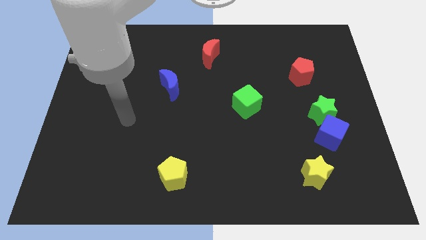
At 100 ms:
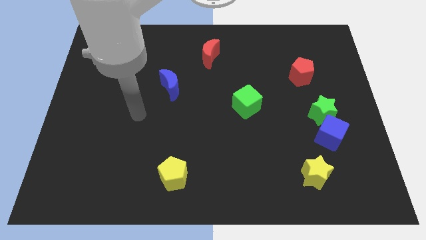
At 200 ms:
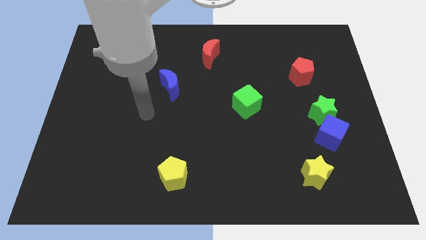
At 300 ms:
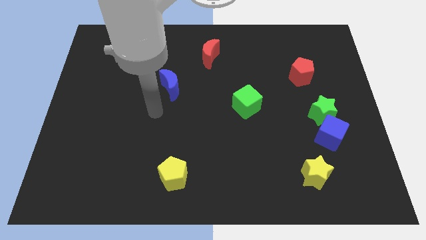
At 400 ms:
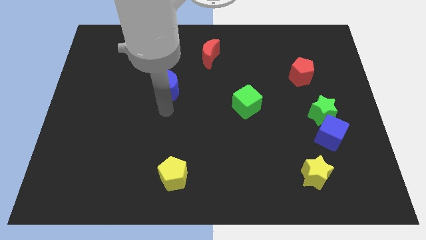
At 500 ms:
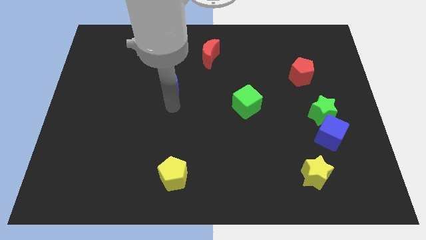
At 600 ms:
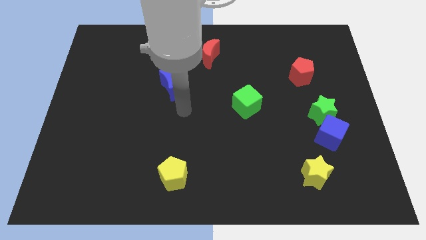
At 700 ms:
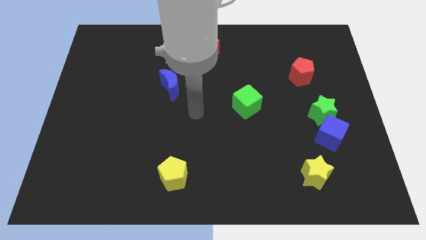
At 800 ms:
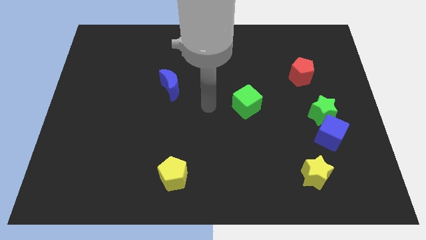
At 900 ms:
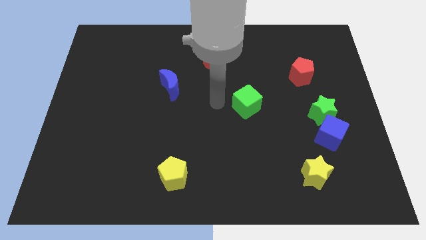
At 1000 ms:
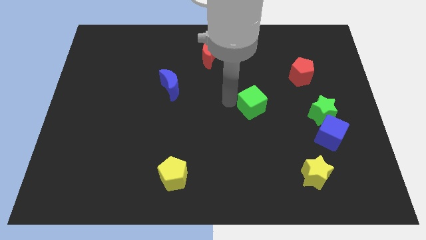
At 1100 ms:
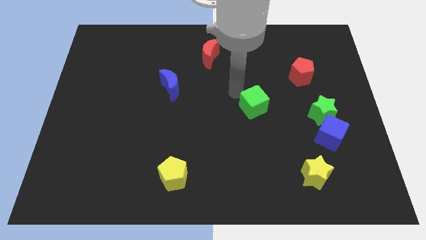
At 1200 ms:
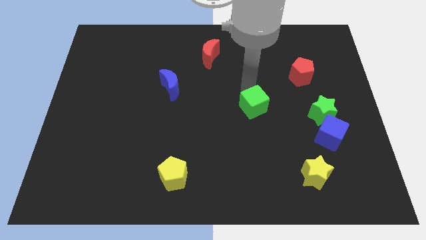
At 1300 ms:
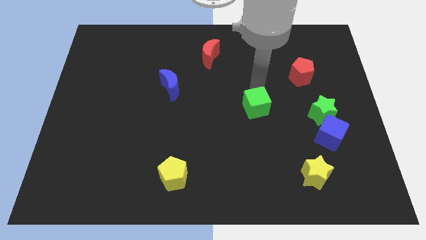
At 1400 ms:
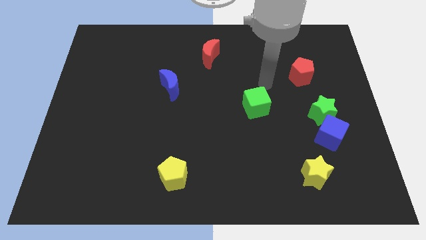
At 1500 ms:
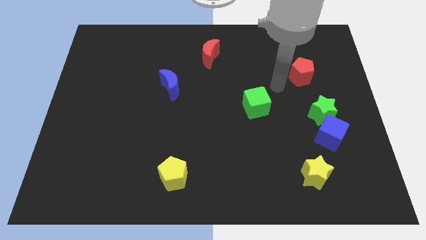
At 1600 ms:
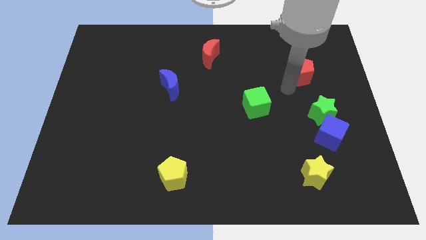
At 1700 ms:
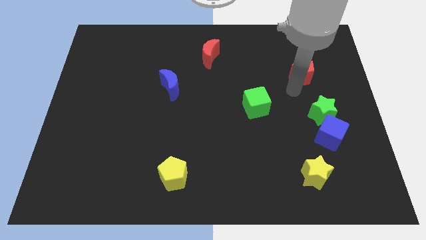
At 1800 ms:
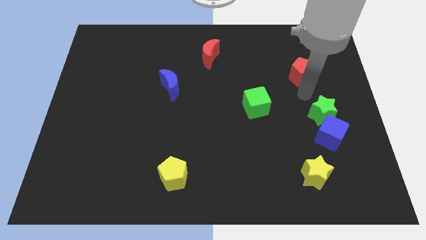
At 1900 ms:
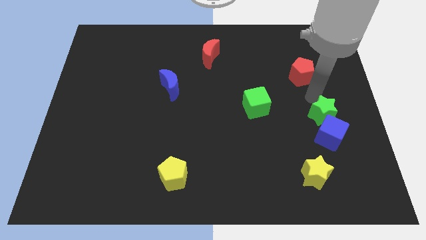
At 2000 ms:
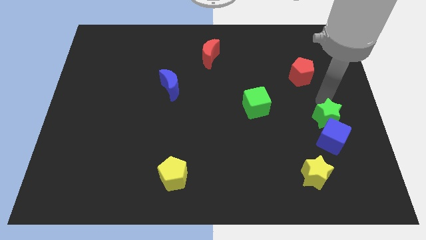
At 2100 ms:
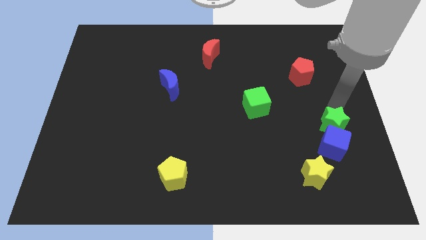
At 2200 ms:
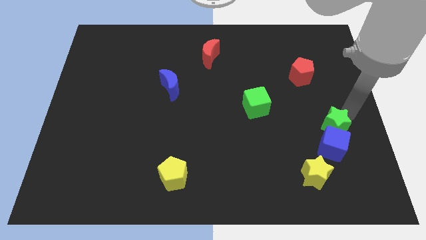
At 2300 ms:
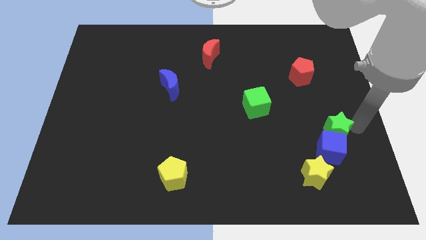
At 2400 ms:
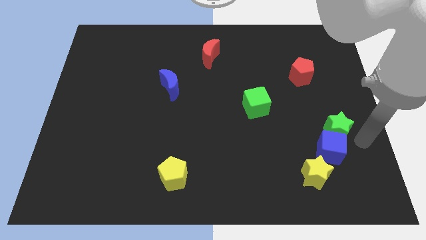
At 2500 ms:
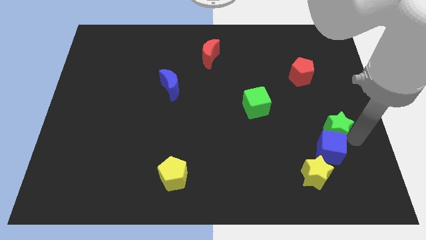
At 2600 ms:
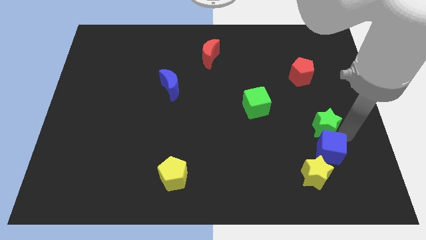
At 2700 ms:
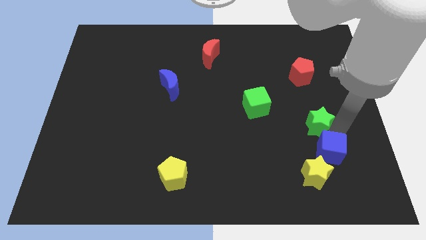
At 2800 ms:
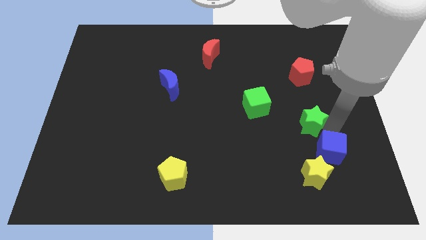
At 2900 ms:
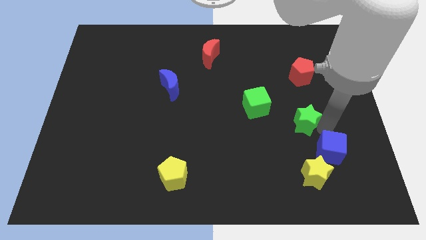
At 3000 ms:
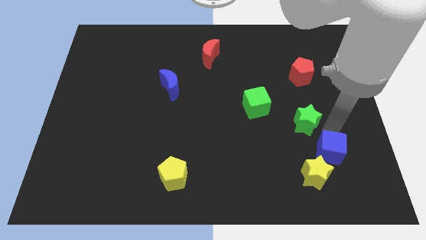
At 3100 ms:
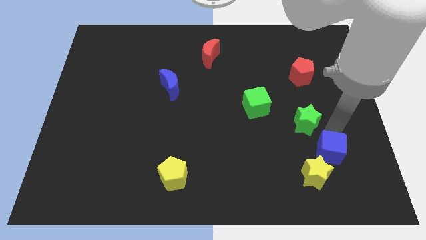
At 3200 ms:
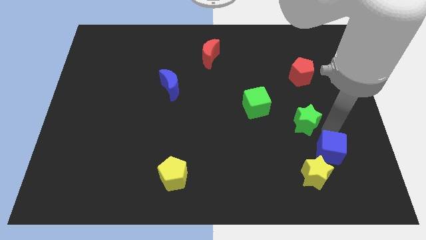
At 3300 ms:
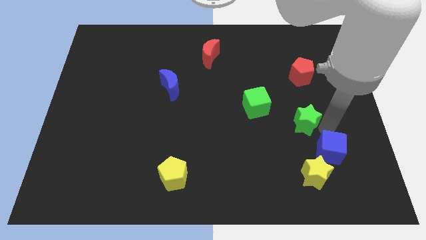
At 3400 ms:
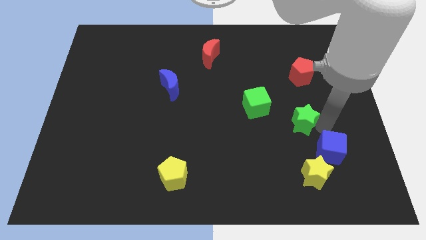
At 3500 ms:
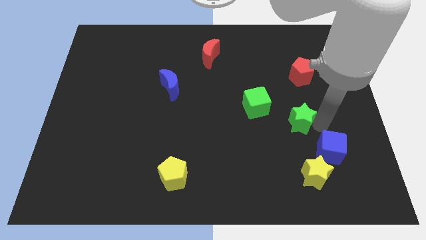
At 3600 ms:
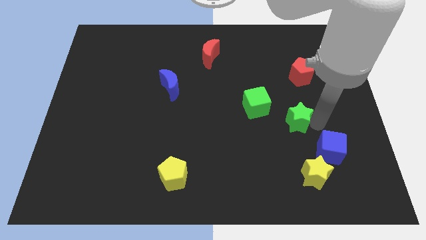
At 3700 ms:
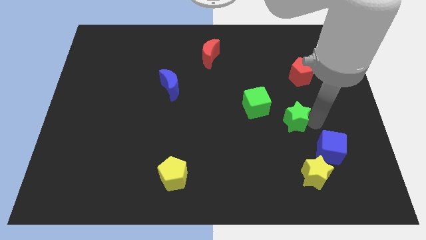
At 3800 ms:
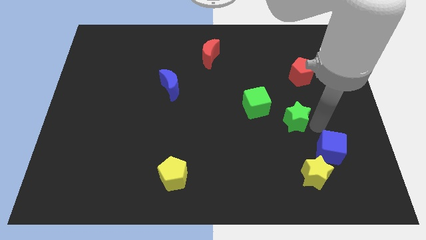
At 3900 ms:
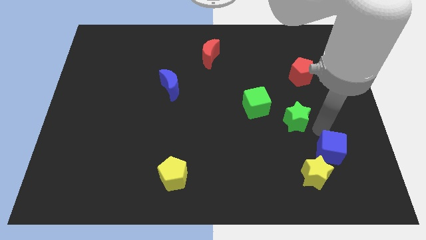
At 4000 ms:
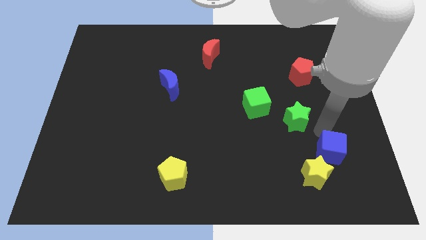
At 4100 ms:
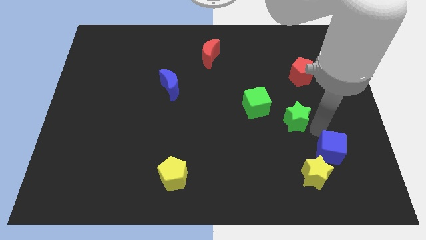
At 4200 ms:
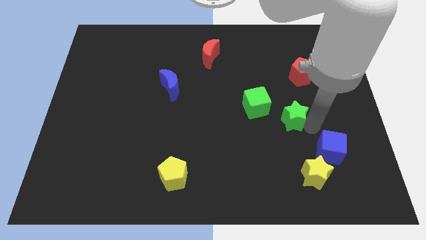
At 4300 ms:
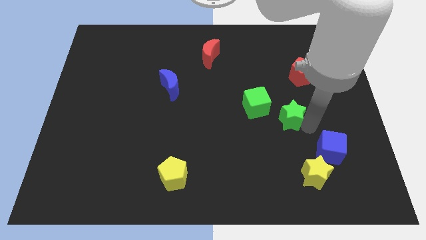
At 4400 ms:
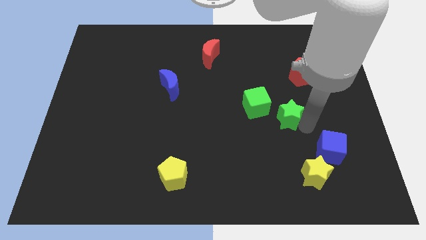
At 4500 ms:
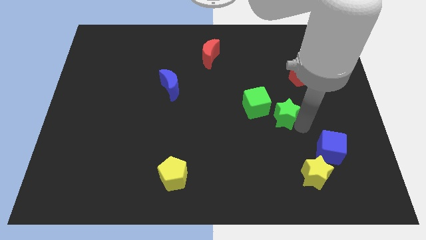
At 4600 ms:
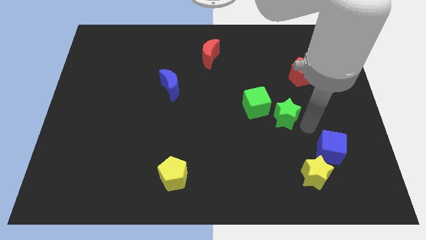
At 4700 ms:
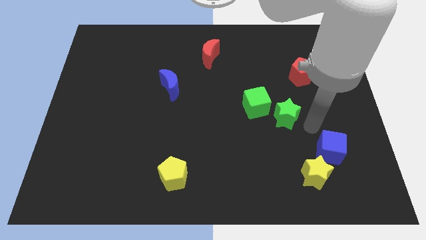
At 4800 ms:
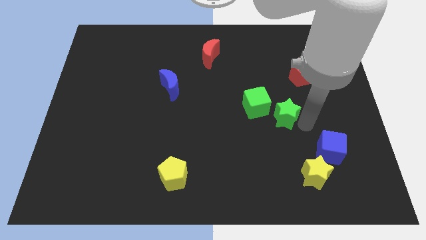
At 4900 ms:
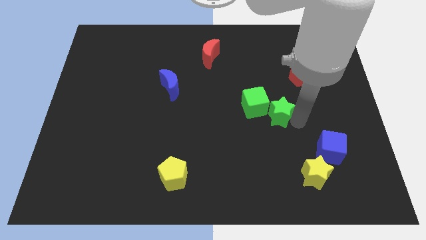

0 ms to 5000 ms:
put the green star next to the green cube

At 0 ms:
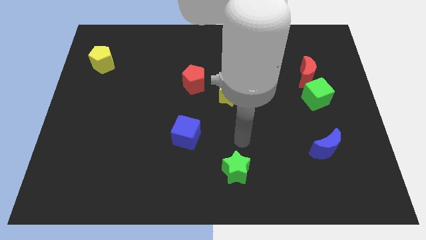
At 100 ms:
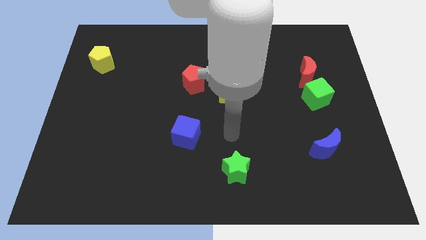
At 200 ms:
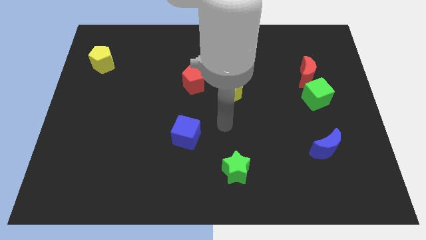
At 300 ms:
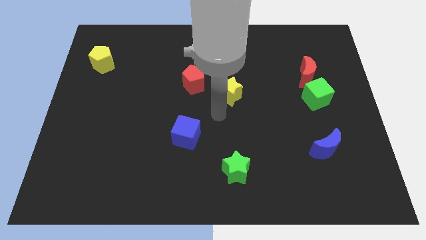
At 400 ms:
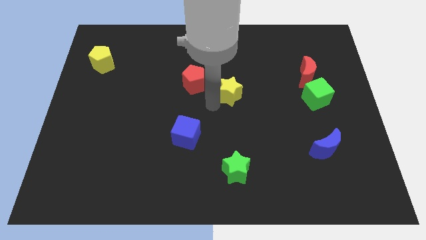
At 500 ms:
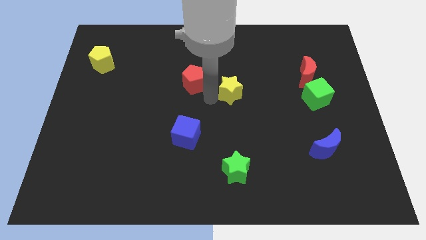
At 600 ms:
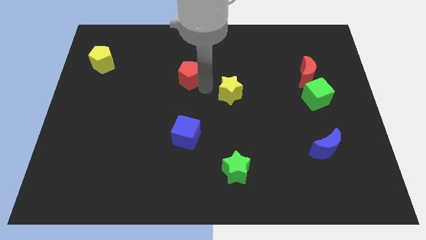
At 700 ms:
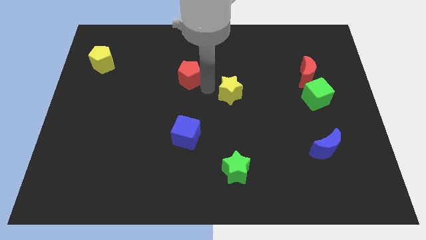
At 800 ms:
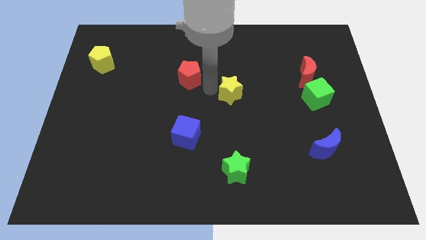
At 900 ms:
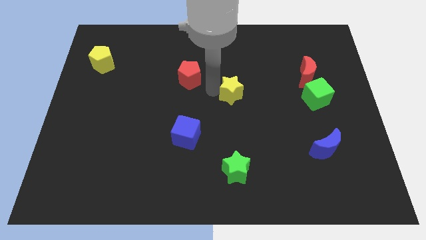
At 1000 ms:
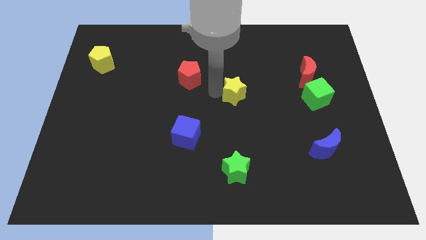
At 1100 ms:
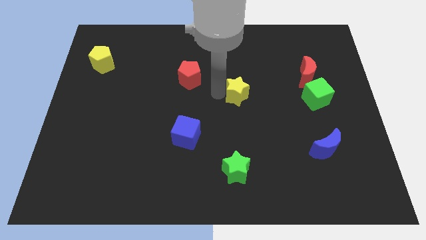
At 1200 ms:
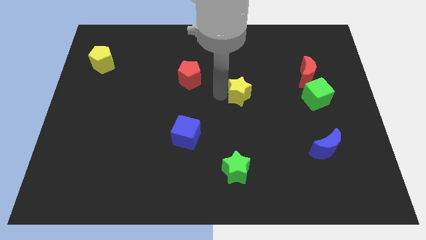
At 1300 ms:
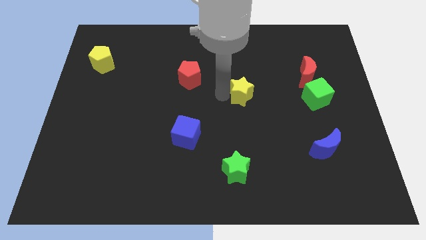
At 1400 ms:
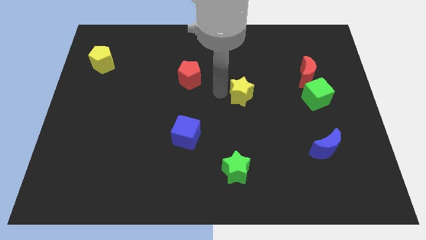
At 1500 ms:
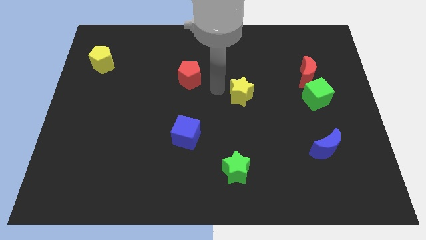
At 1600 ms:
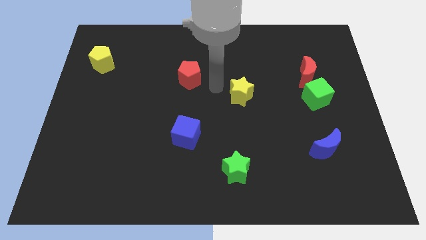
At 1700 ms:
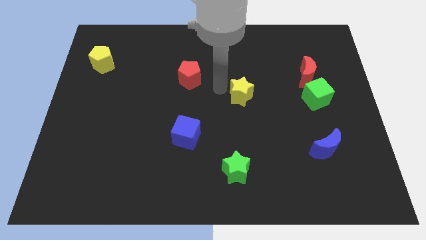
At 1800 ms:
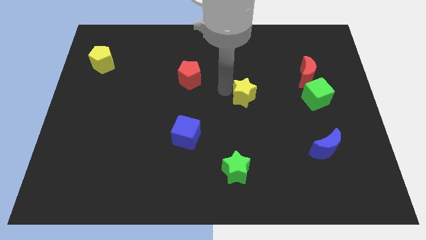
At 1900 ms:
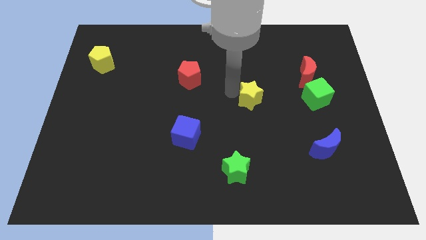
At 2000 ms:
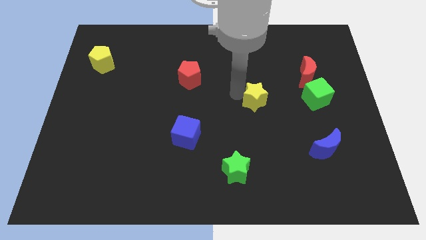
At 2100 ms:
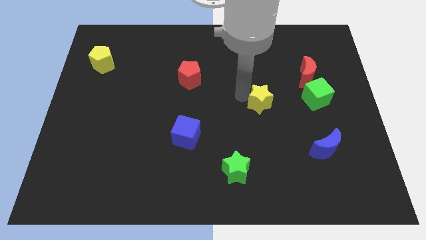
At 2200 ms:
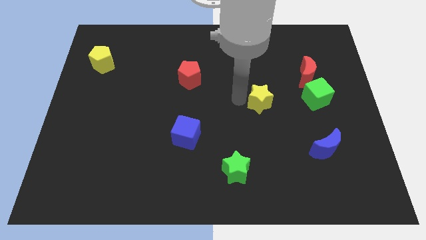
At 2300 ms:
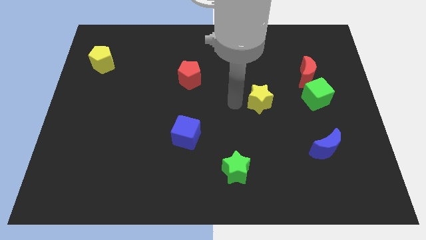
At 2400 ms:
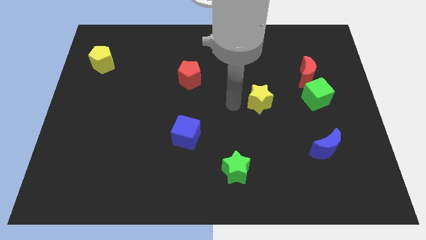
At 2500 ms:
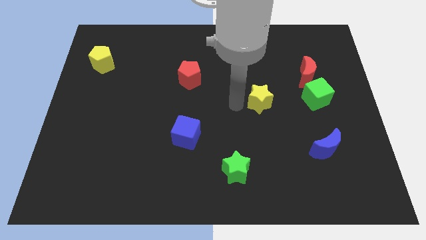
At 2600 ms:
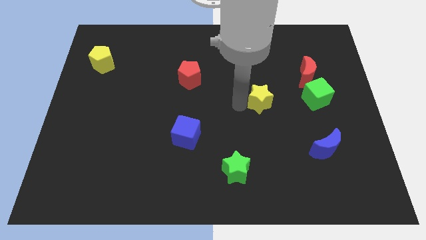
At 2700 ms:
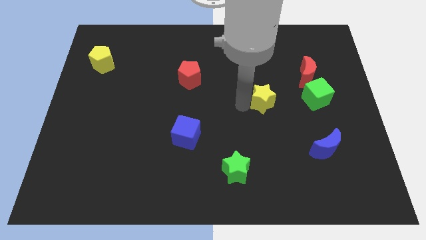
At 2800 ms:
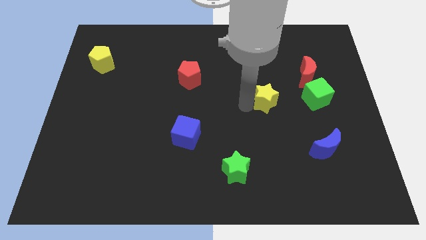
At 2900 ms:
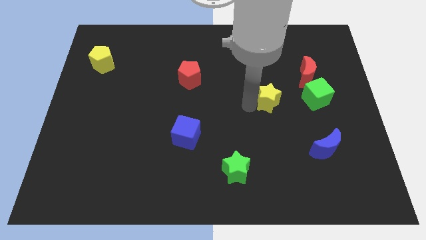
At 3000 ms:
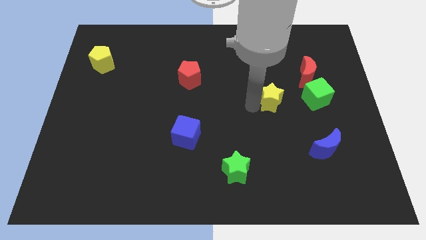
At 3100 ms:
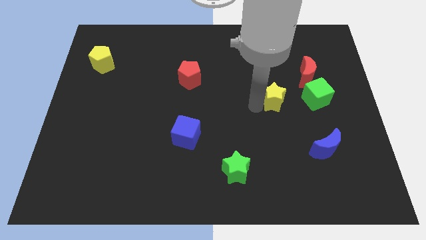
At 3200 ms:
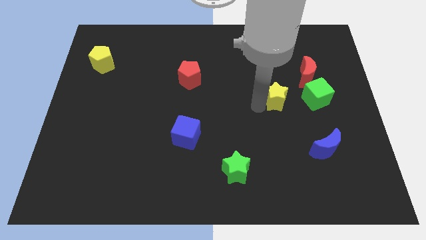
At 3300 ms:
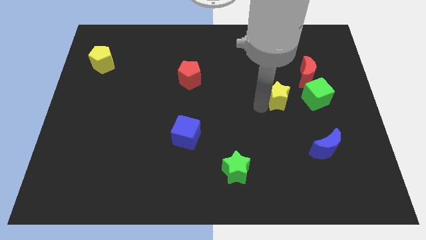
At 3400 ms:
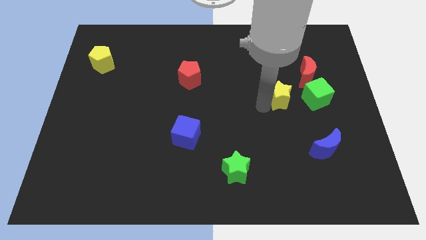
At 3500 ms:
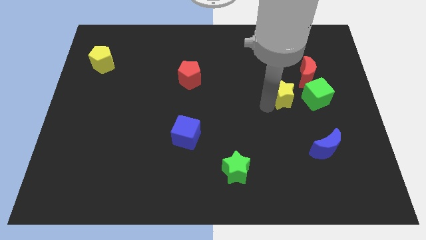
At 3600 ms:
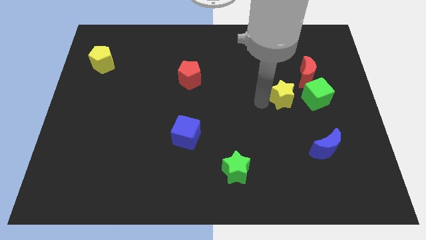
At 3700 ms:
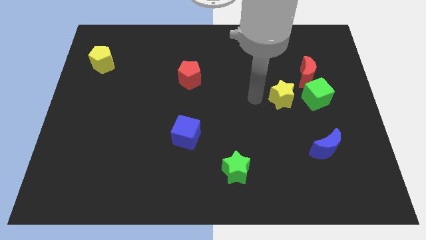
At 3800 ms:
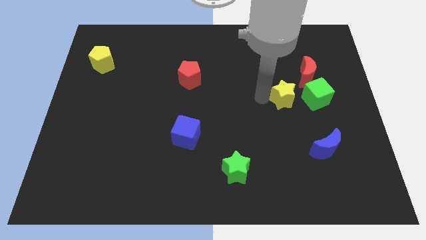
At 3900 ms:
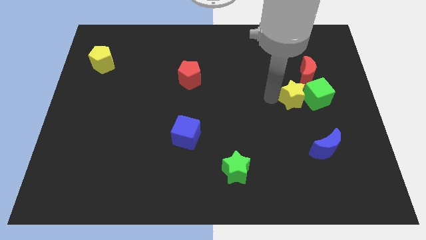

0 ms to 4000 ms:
push the yellow star to the green cube
